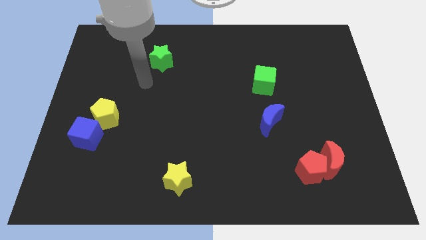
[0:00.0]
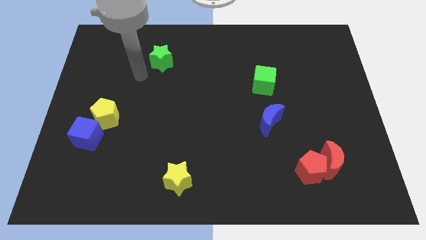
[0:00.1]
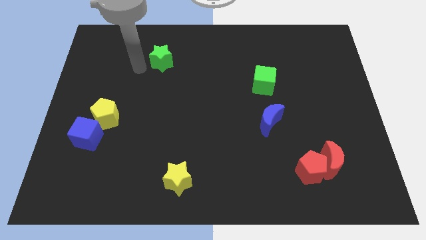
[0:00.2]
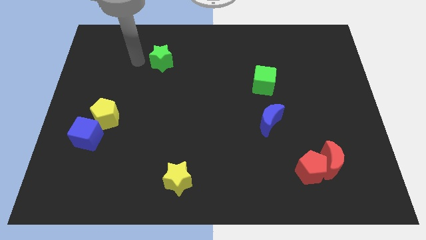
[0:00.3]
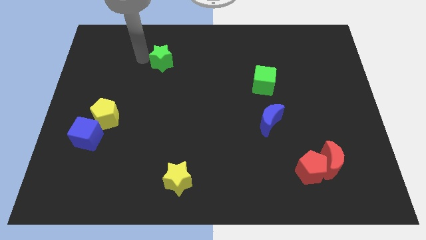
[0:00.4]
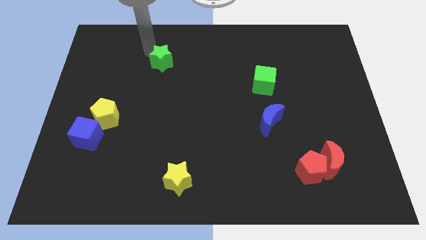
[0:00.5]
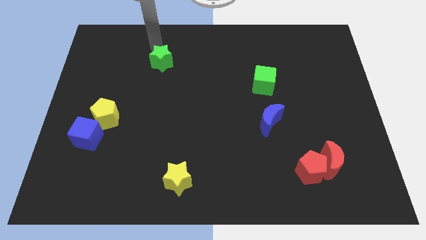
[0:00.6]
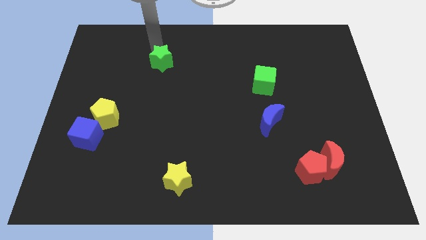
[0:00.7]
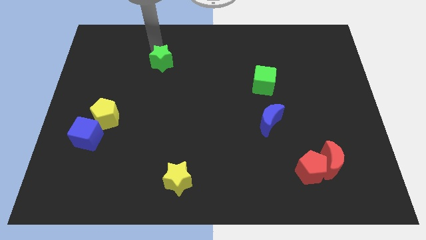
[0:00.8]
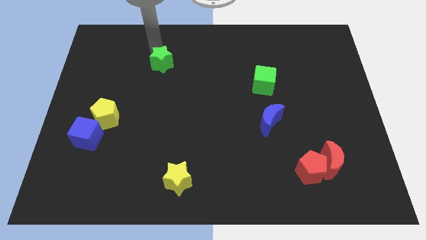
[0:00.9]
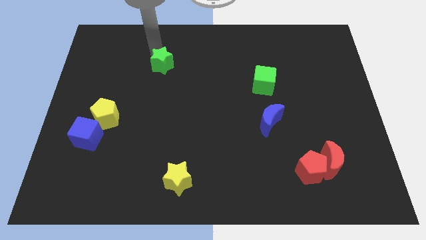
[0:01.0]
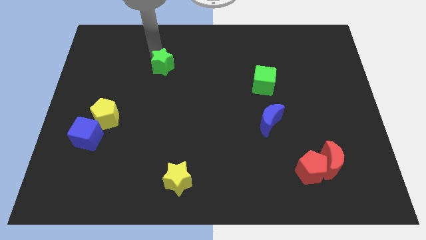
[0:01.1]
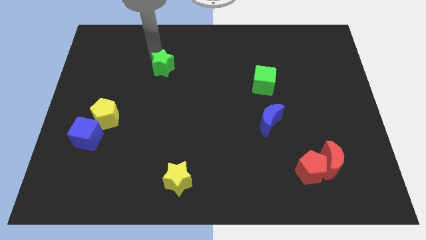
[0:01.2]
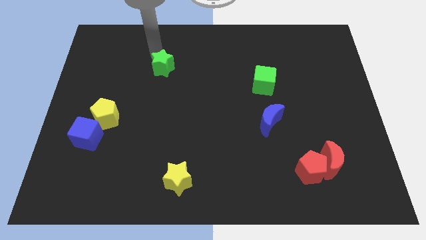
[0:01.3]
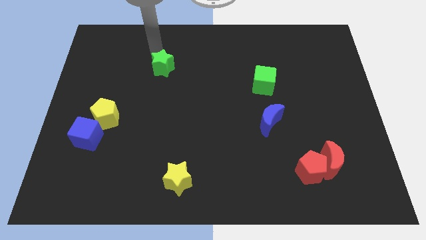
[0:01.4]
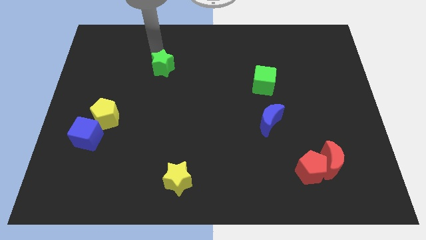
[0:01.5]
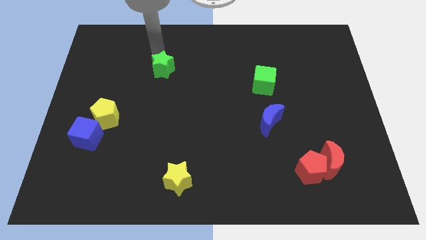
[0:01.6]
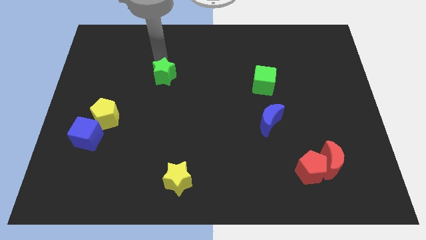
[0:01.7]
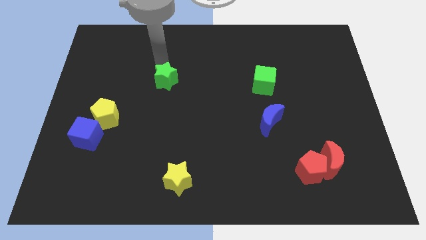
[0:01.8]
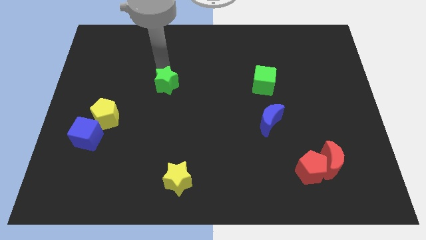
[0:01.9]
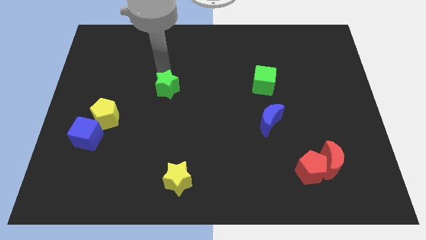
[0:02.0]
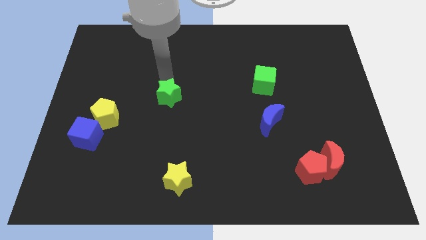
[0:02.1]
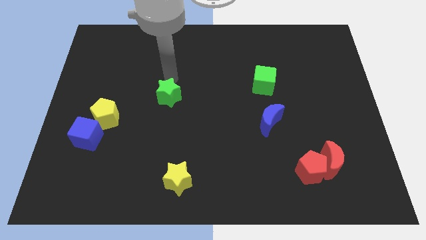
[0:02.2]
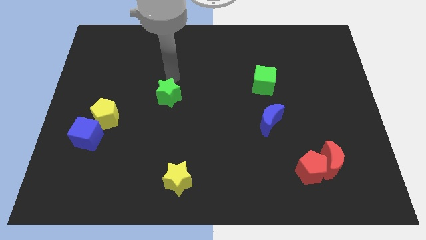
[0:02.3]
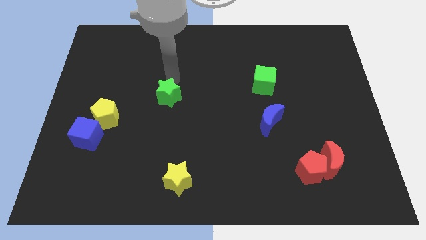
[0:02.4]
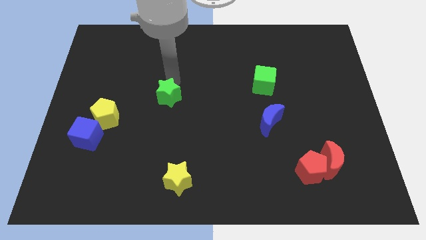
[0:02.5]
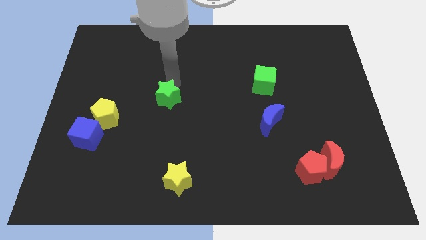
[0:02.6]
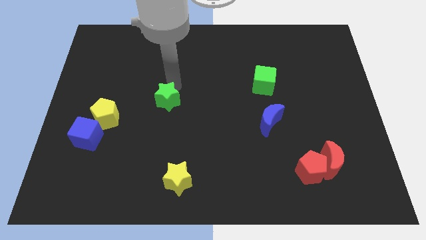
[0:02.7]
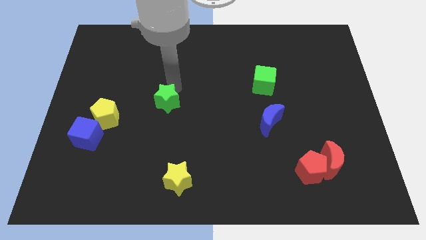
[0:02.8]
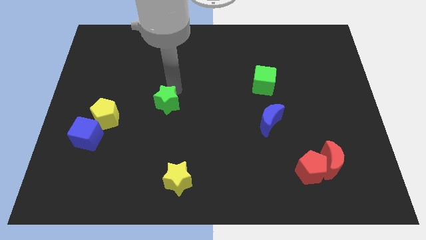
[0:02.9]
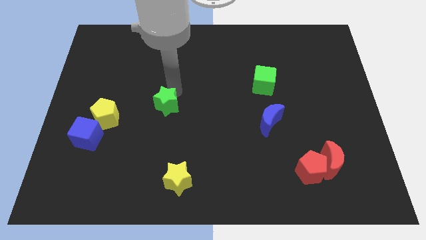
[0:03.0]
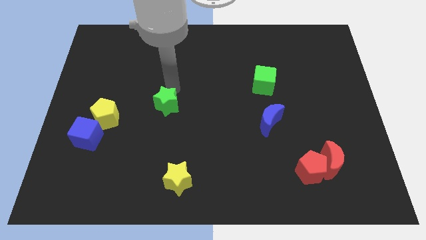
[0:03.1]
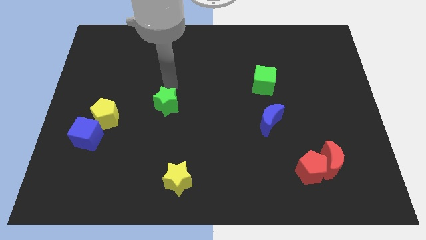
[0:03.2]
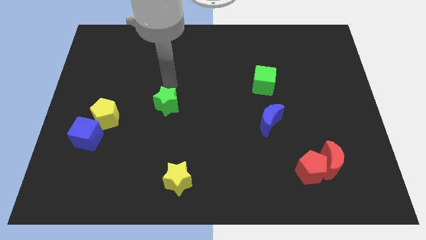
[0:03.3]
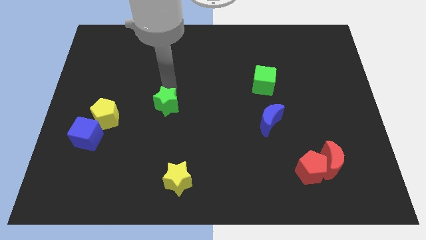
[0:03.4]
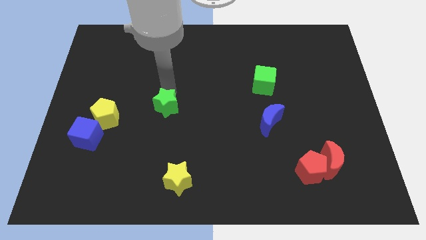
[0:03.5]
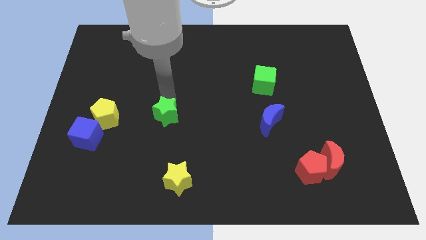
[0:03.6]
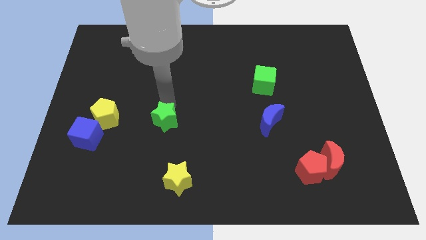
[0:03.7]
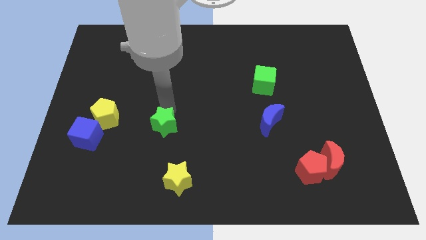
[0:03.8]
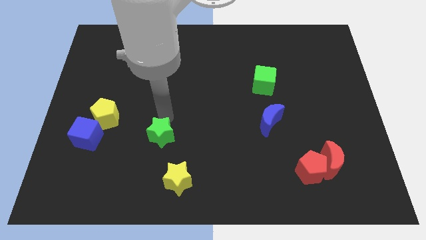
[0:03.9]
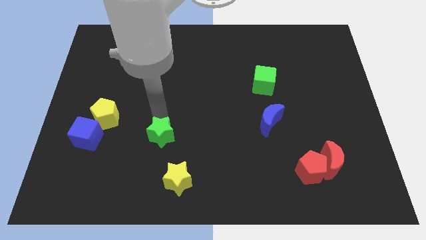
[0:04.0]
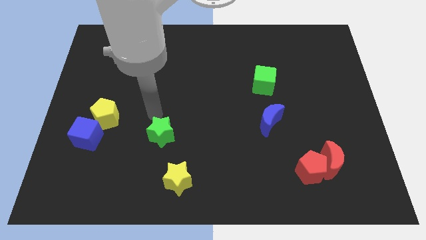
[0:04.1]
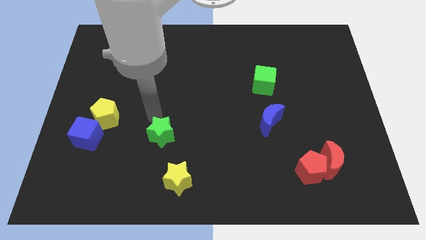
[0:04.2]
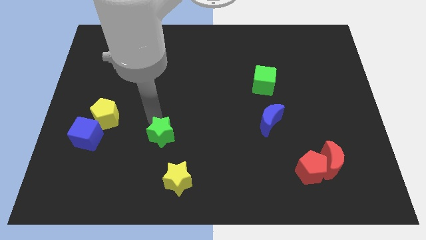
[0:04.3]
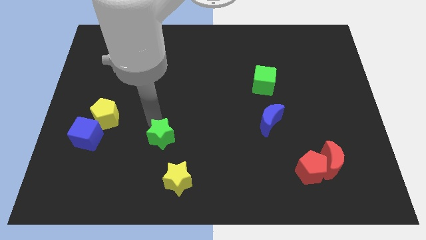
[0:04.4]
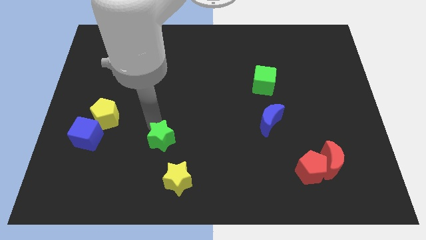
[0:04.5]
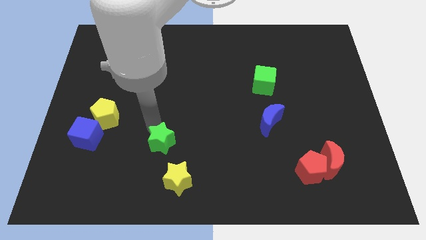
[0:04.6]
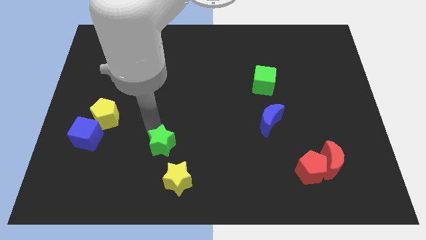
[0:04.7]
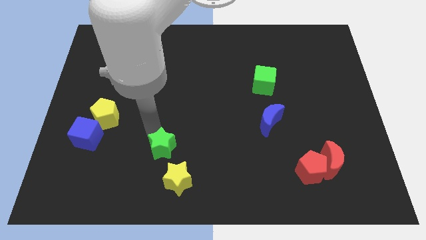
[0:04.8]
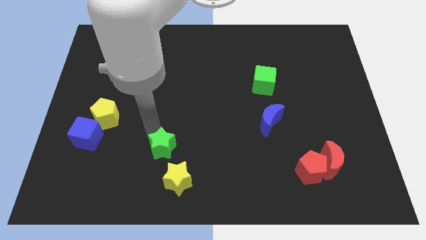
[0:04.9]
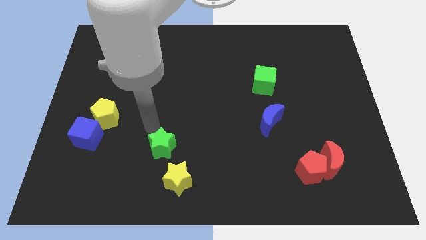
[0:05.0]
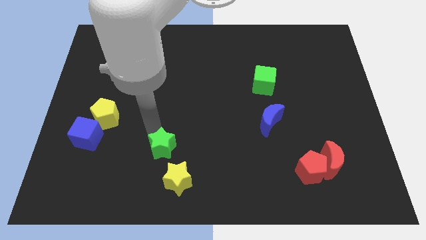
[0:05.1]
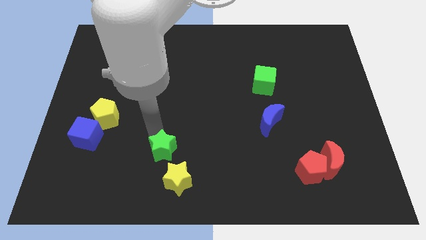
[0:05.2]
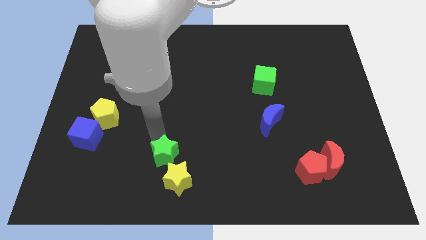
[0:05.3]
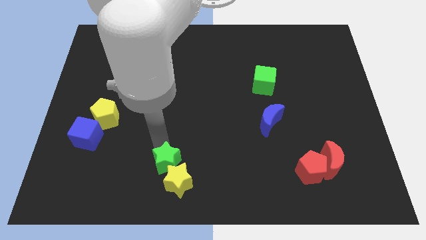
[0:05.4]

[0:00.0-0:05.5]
move the green star next to the yellow star

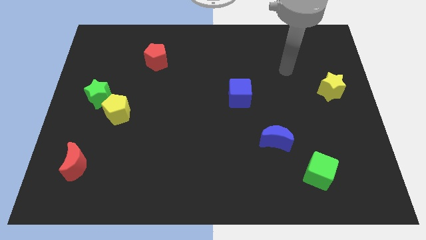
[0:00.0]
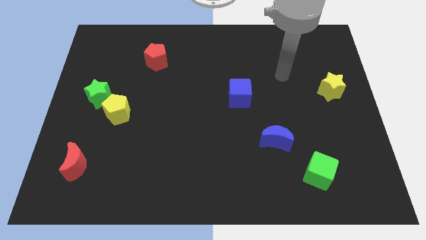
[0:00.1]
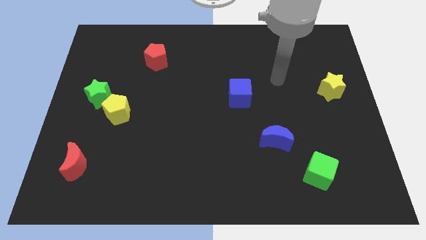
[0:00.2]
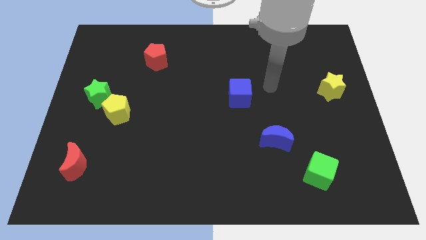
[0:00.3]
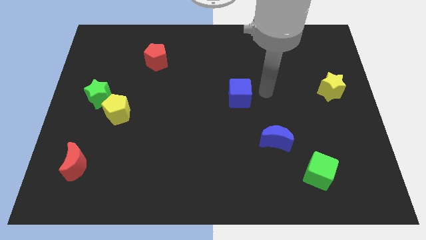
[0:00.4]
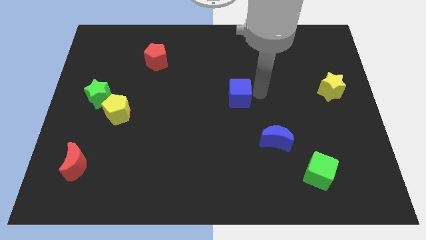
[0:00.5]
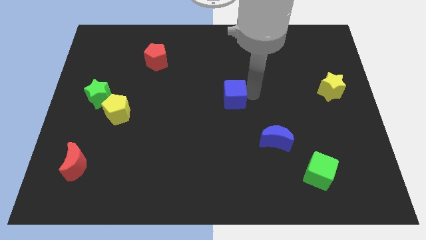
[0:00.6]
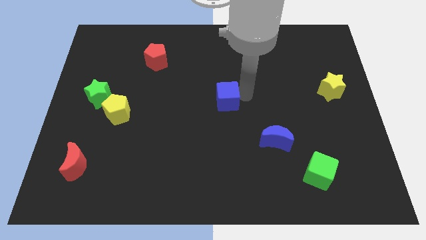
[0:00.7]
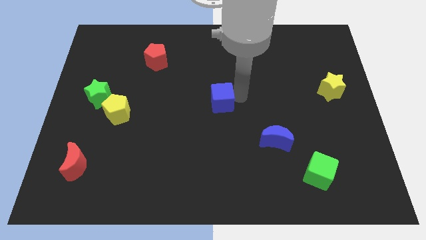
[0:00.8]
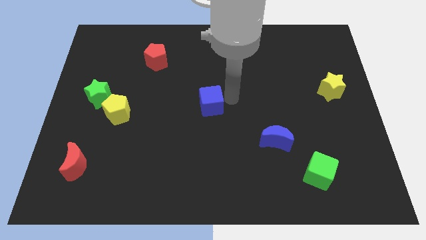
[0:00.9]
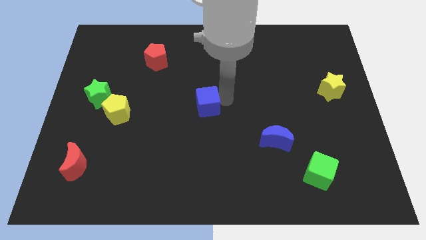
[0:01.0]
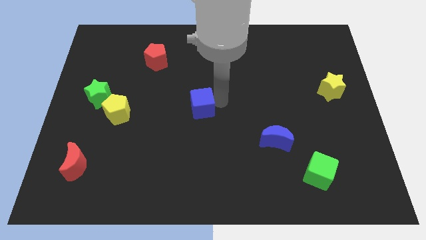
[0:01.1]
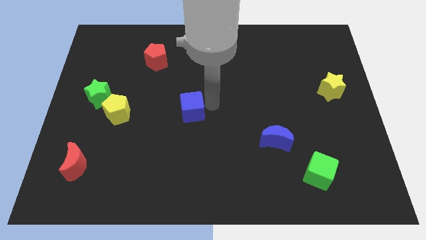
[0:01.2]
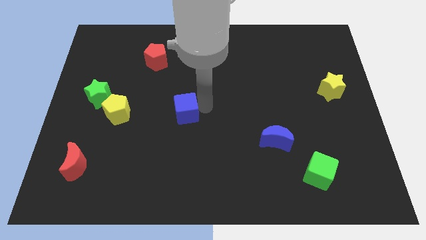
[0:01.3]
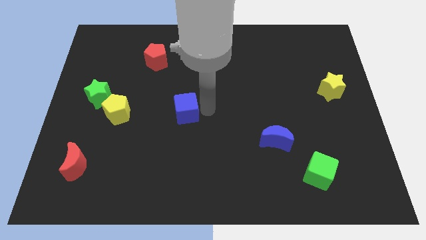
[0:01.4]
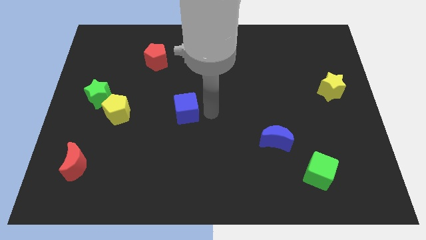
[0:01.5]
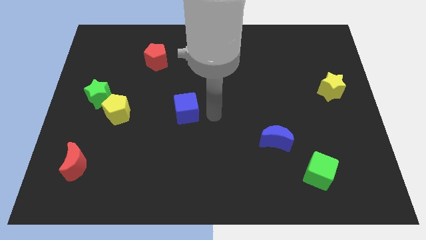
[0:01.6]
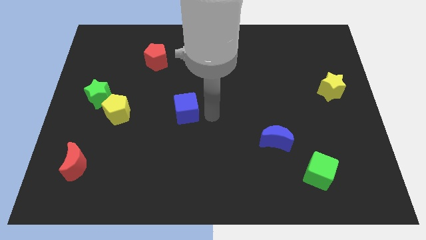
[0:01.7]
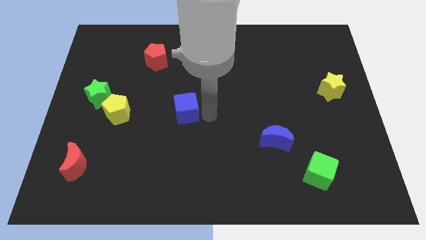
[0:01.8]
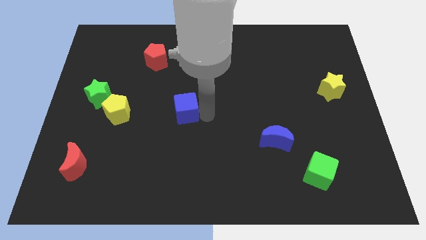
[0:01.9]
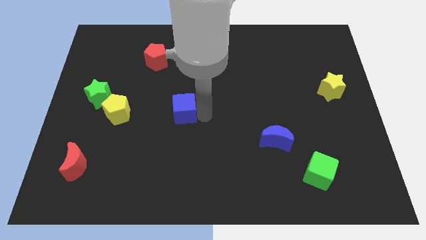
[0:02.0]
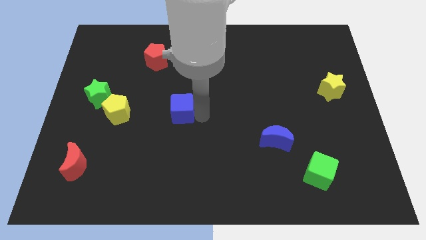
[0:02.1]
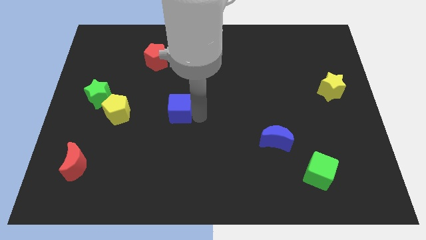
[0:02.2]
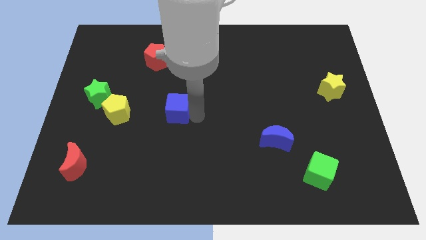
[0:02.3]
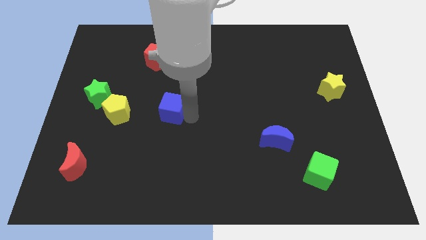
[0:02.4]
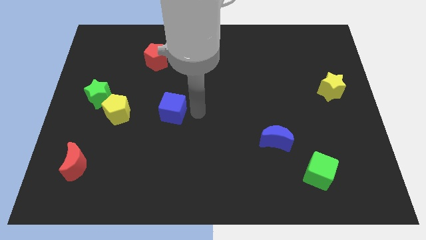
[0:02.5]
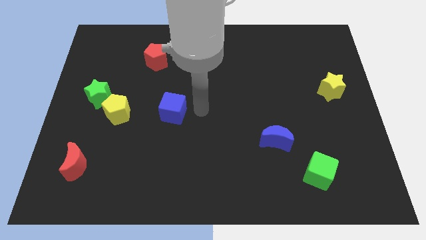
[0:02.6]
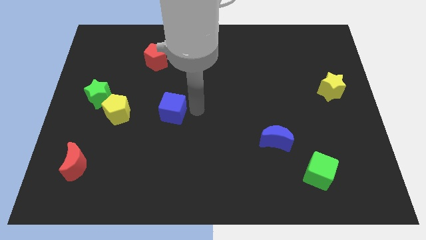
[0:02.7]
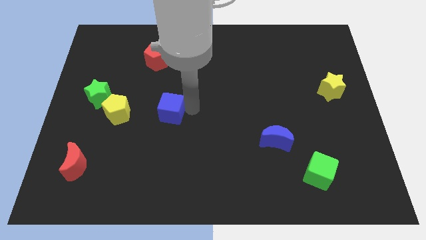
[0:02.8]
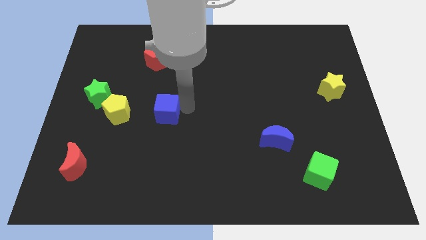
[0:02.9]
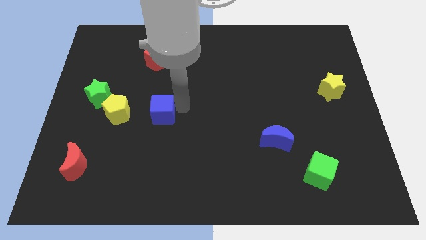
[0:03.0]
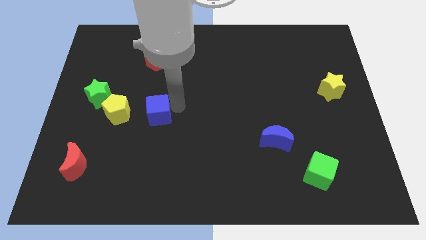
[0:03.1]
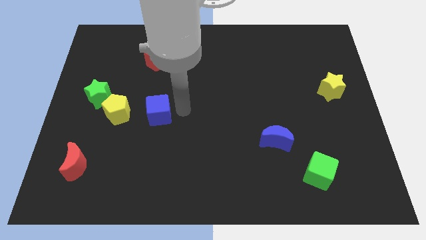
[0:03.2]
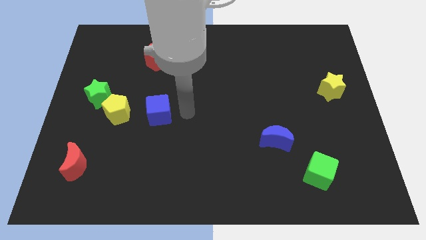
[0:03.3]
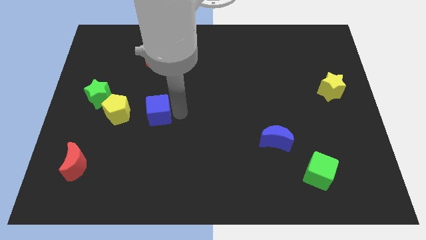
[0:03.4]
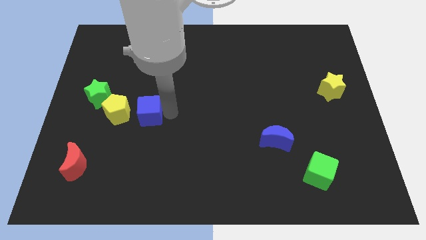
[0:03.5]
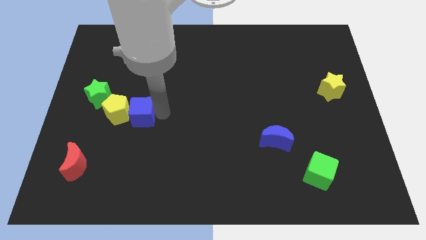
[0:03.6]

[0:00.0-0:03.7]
move the blue cube close to the yellow pentagon
